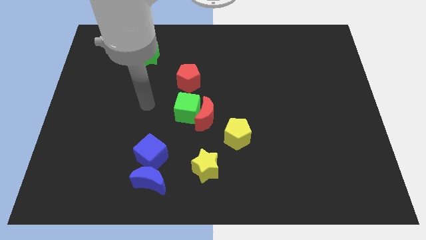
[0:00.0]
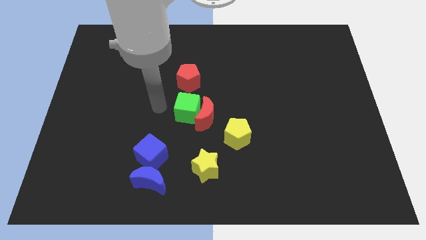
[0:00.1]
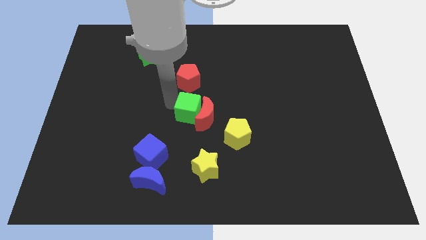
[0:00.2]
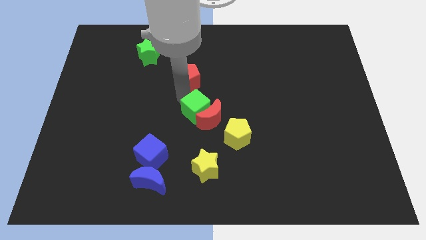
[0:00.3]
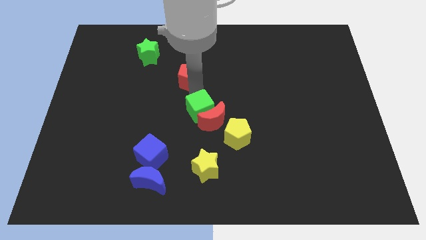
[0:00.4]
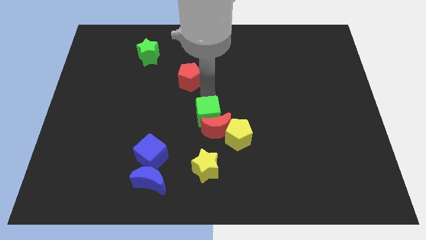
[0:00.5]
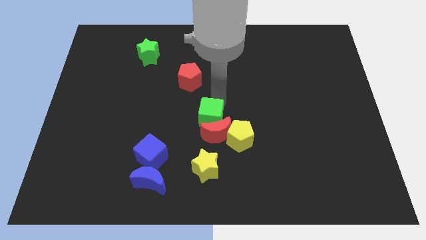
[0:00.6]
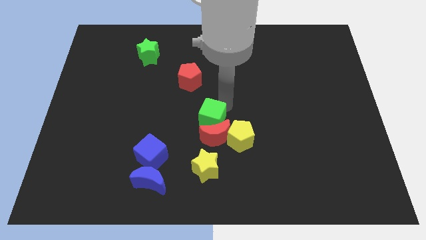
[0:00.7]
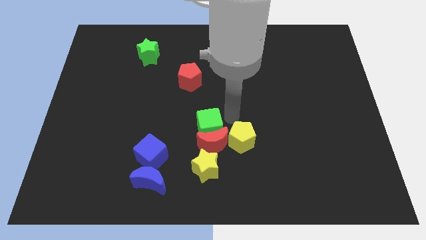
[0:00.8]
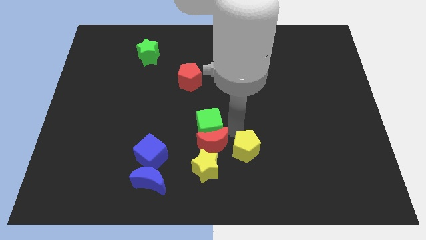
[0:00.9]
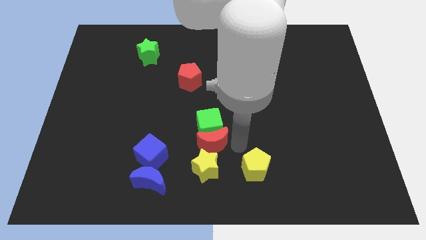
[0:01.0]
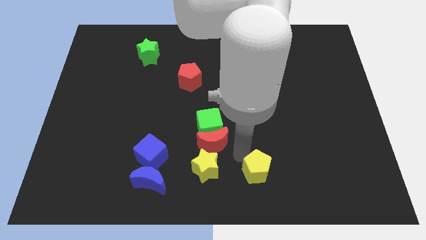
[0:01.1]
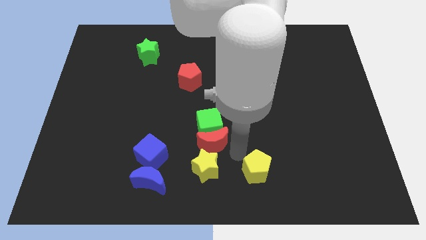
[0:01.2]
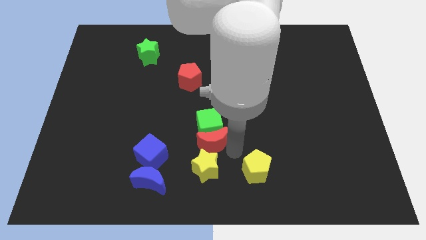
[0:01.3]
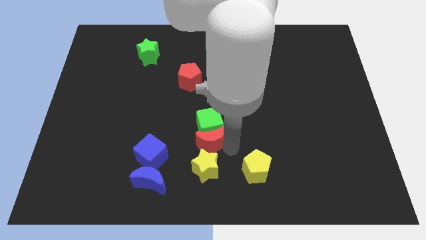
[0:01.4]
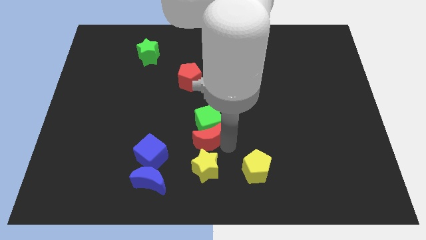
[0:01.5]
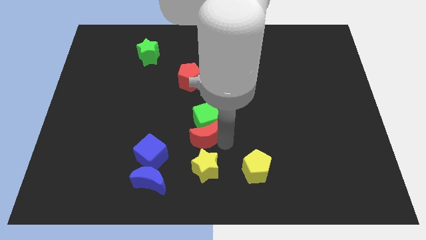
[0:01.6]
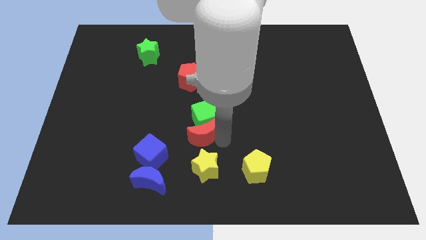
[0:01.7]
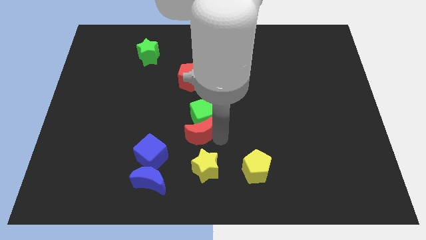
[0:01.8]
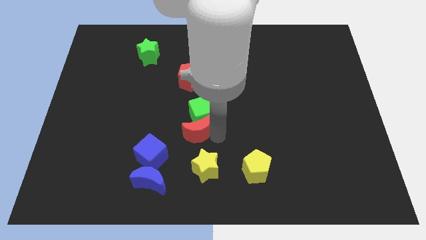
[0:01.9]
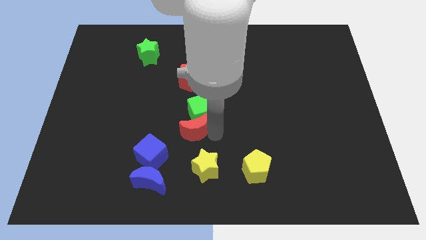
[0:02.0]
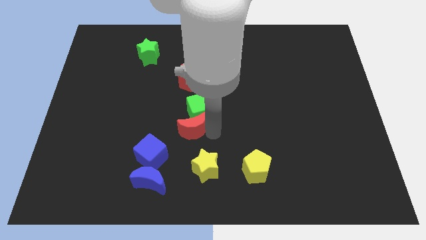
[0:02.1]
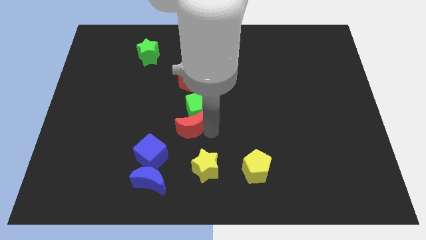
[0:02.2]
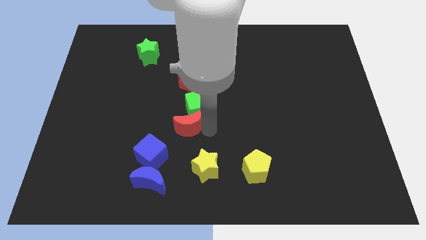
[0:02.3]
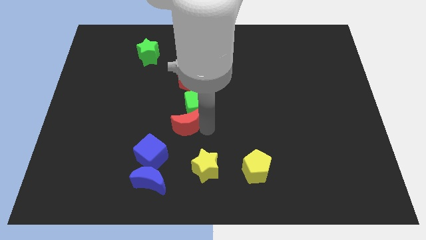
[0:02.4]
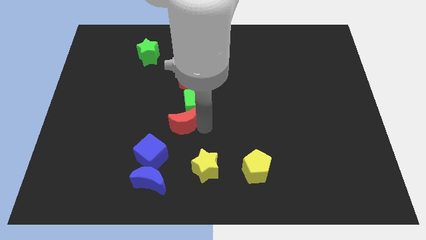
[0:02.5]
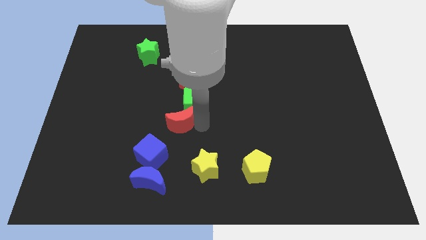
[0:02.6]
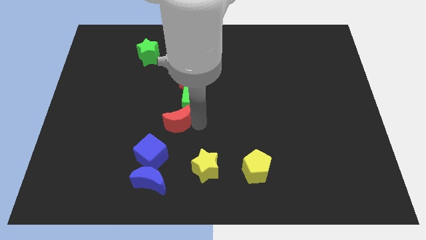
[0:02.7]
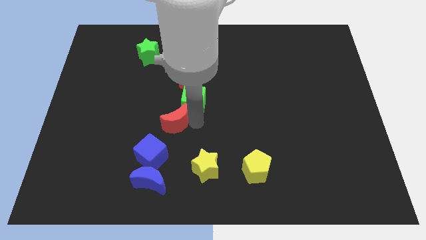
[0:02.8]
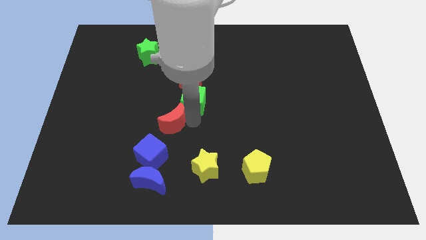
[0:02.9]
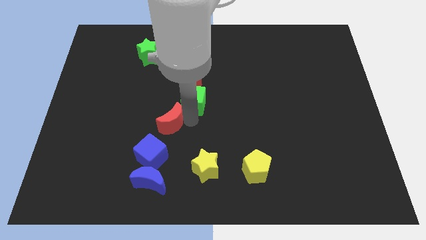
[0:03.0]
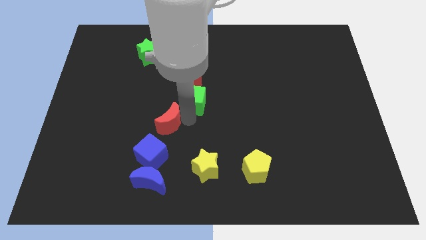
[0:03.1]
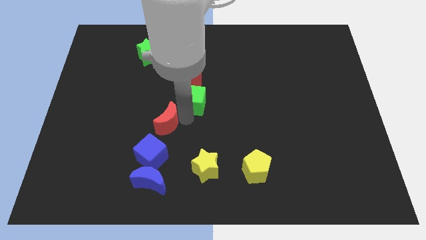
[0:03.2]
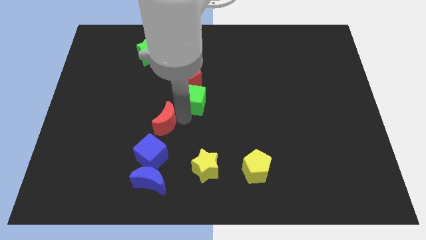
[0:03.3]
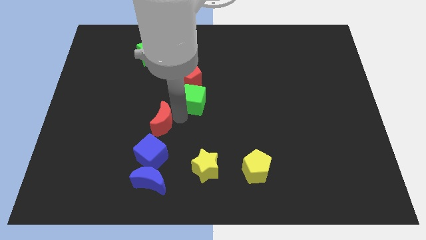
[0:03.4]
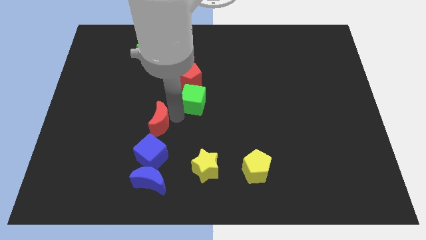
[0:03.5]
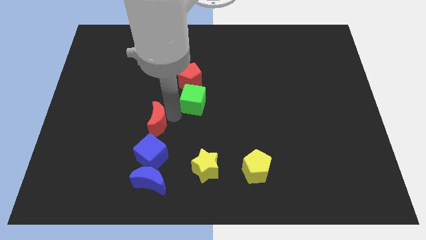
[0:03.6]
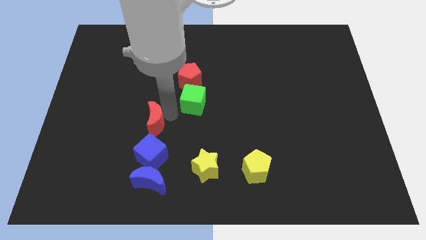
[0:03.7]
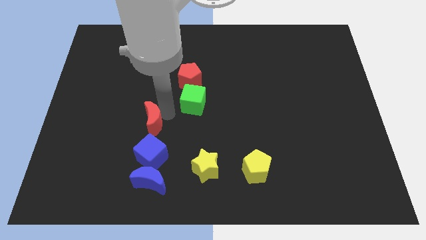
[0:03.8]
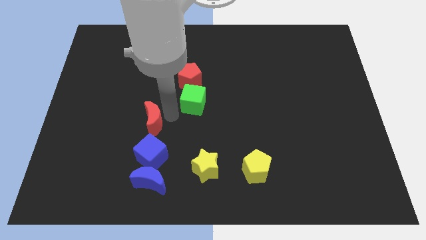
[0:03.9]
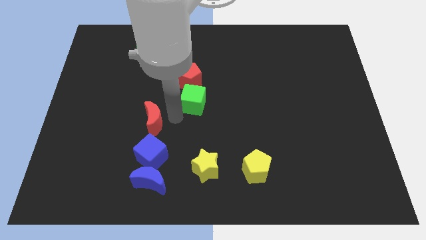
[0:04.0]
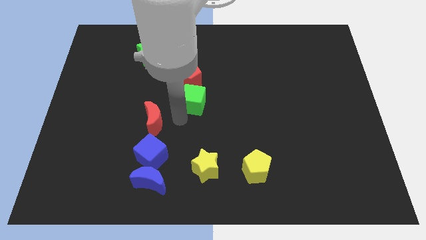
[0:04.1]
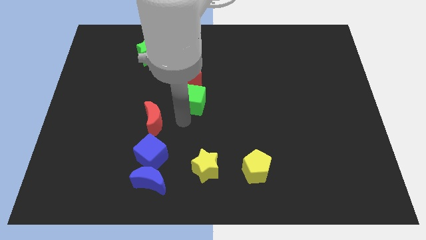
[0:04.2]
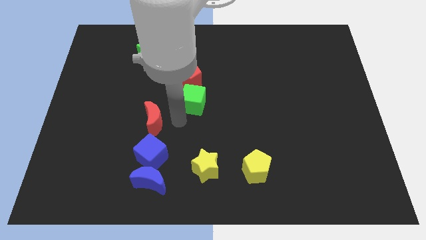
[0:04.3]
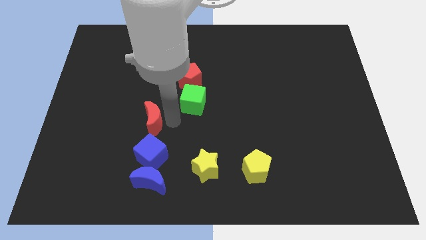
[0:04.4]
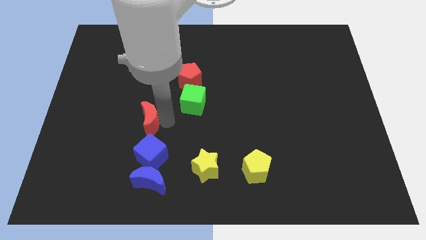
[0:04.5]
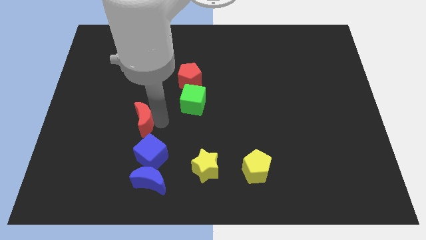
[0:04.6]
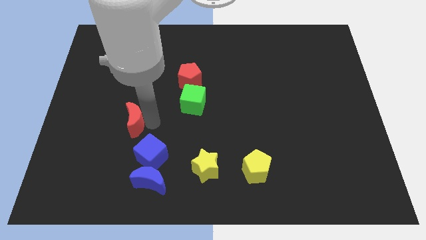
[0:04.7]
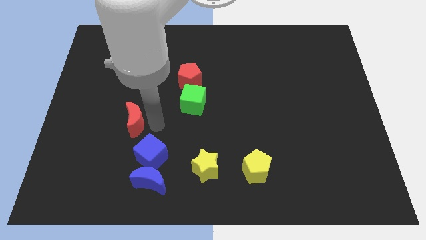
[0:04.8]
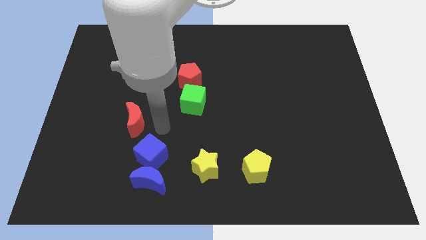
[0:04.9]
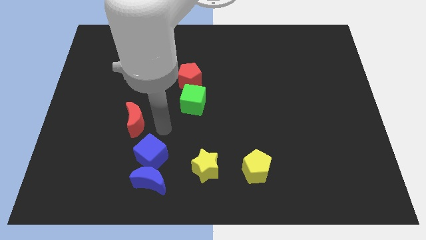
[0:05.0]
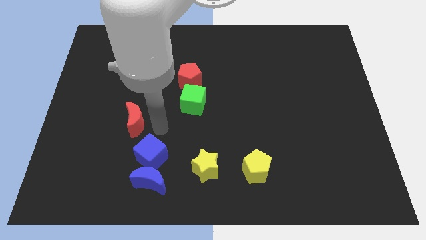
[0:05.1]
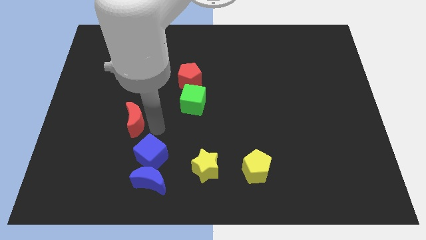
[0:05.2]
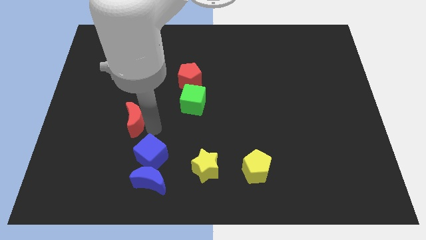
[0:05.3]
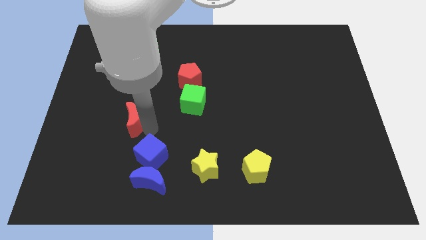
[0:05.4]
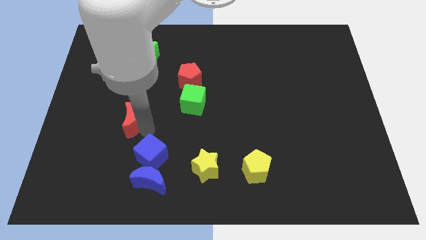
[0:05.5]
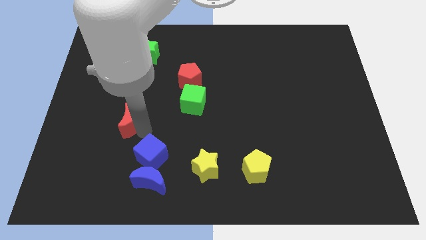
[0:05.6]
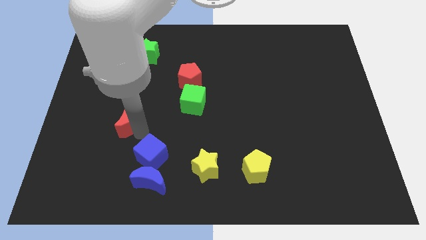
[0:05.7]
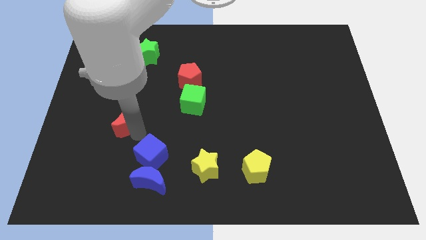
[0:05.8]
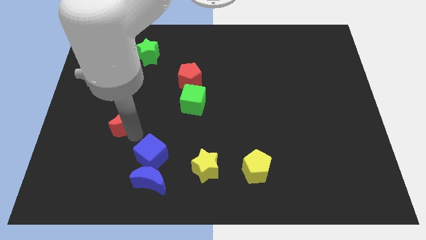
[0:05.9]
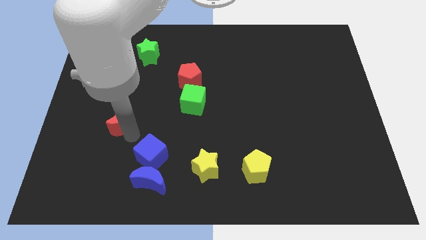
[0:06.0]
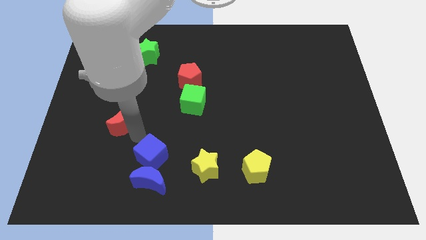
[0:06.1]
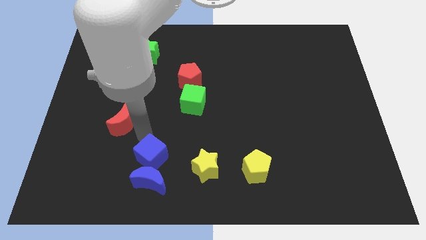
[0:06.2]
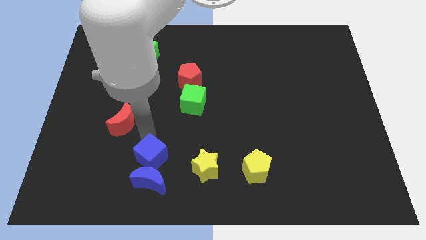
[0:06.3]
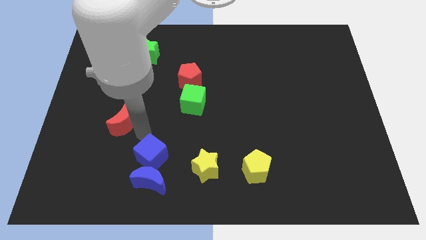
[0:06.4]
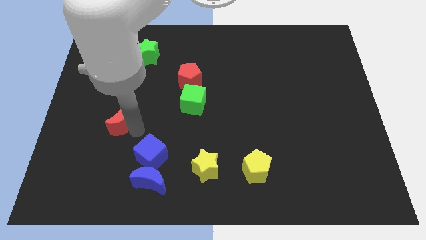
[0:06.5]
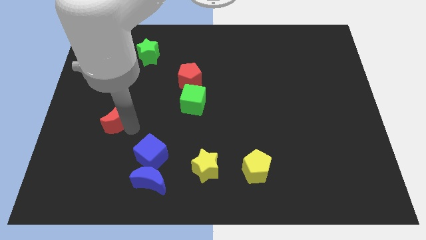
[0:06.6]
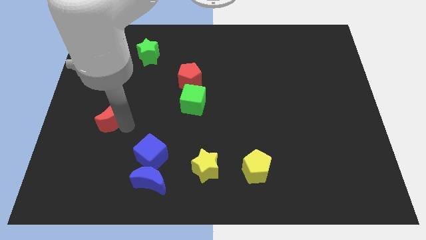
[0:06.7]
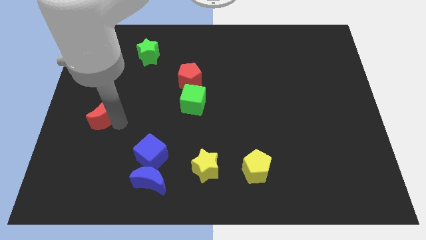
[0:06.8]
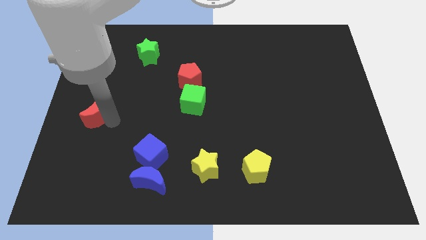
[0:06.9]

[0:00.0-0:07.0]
push the red moon to the left side of the board
